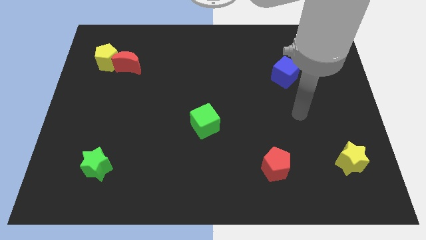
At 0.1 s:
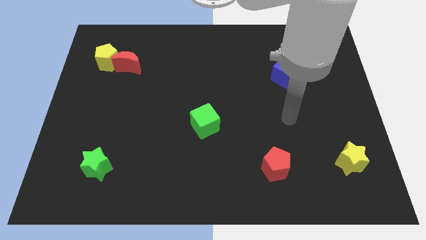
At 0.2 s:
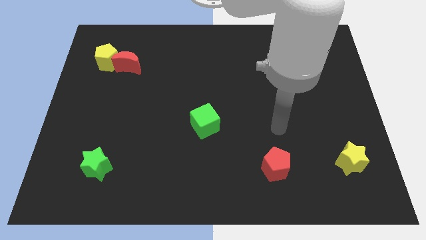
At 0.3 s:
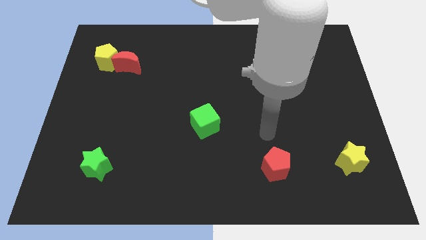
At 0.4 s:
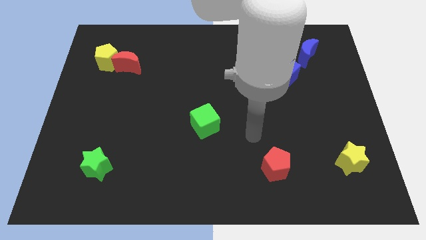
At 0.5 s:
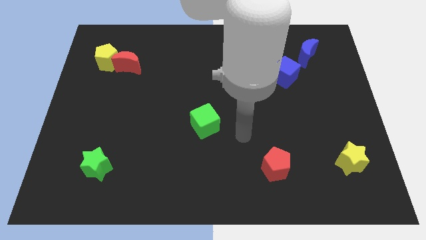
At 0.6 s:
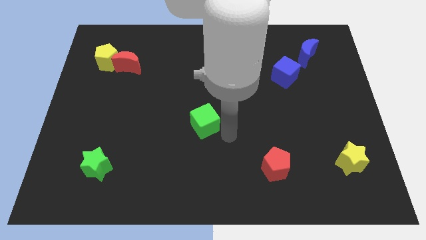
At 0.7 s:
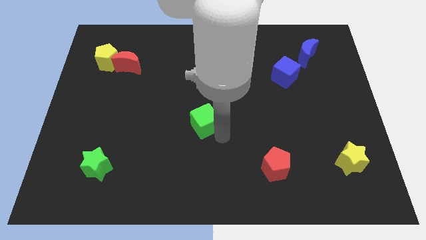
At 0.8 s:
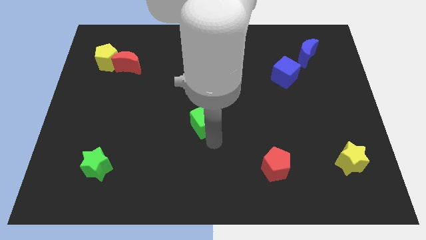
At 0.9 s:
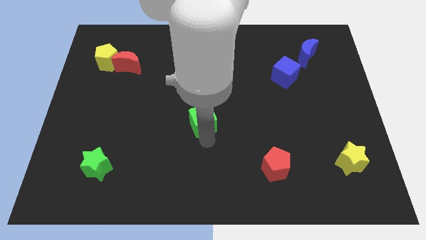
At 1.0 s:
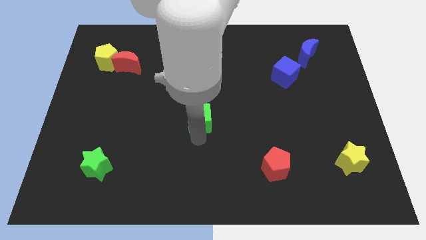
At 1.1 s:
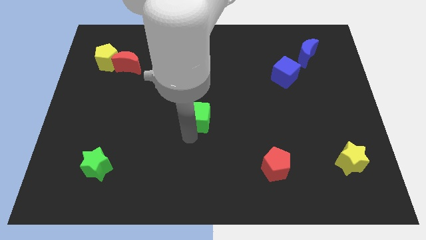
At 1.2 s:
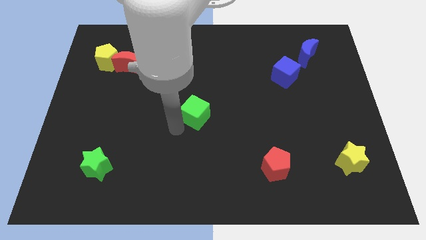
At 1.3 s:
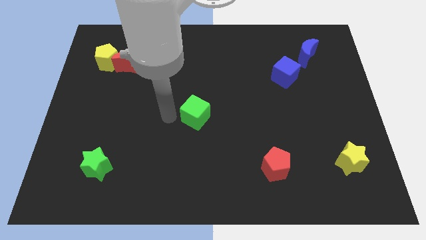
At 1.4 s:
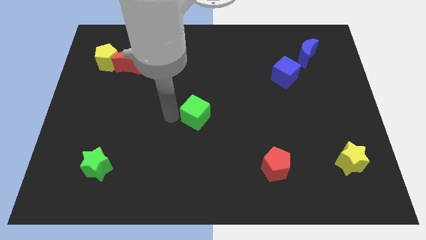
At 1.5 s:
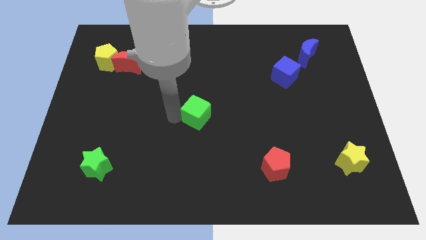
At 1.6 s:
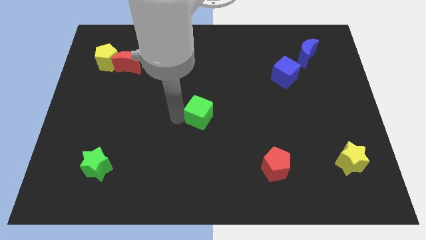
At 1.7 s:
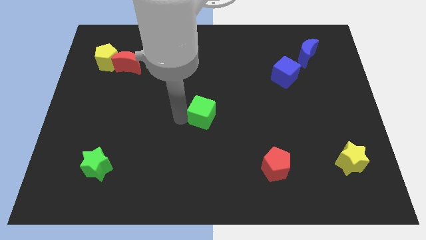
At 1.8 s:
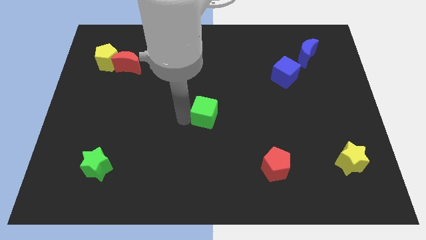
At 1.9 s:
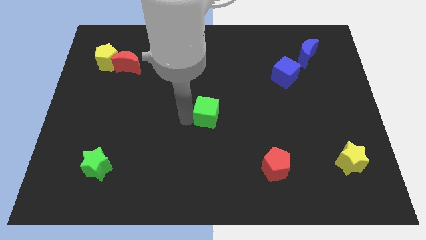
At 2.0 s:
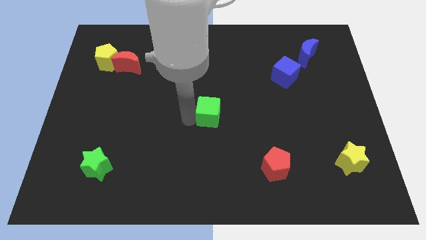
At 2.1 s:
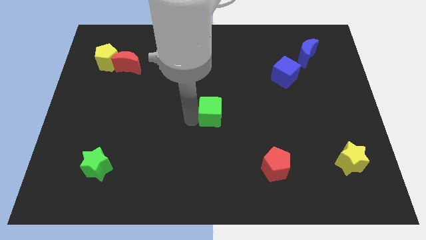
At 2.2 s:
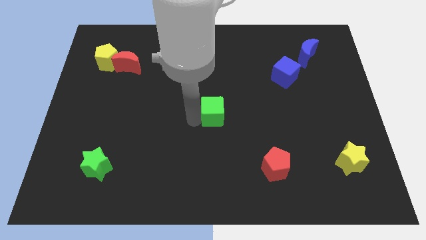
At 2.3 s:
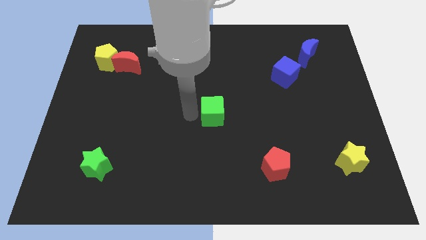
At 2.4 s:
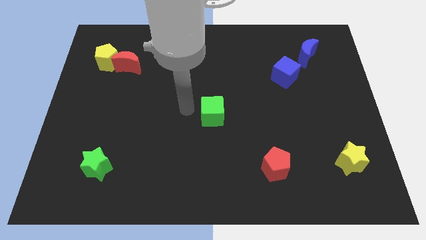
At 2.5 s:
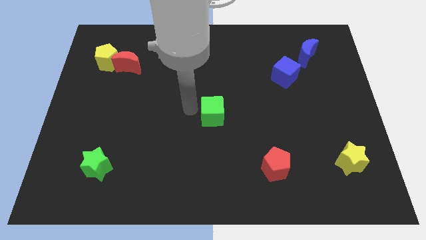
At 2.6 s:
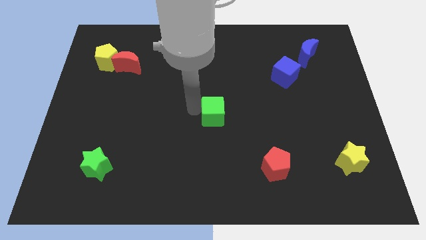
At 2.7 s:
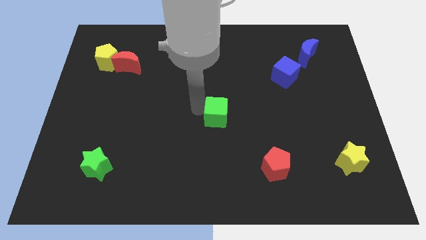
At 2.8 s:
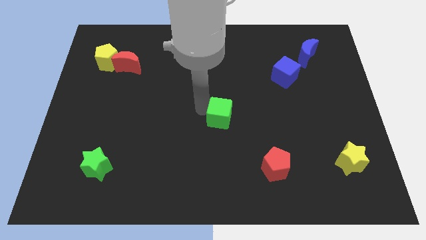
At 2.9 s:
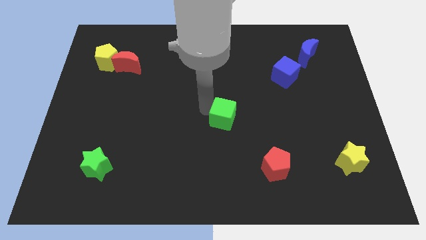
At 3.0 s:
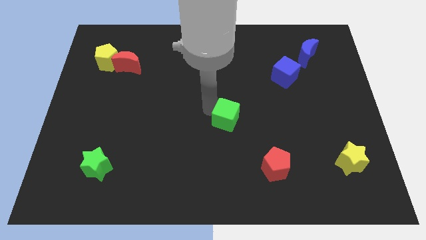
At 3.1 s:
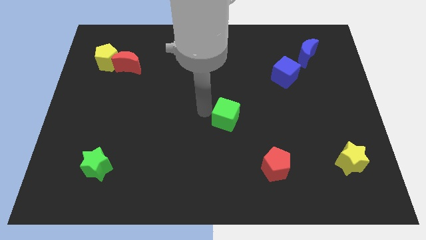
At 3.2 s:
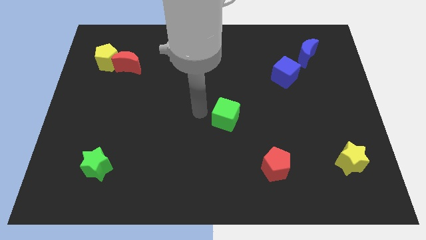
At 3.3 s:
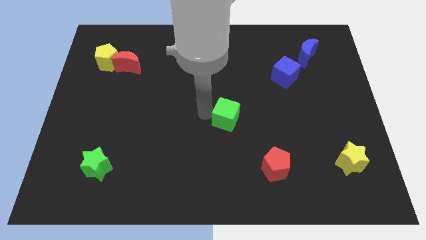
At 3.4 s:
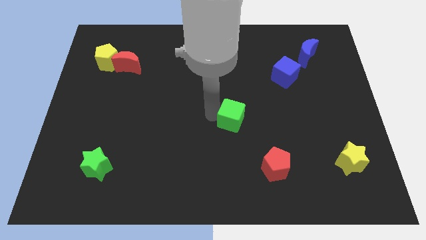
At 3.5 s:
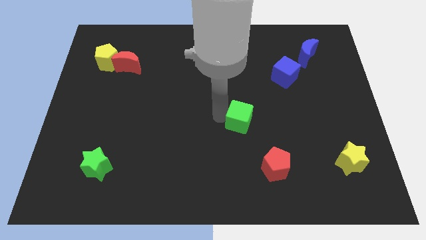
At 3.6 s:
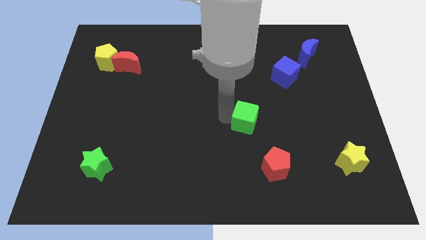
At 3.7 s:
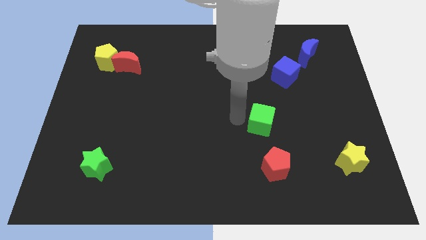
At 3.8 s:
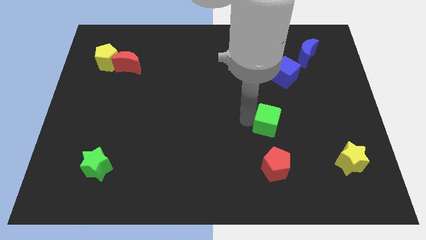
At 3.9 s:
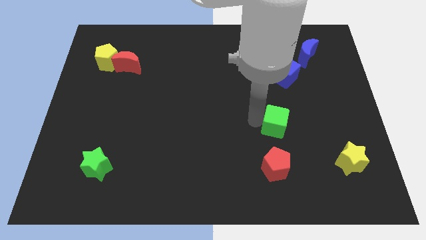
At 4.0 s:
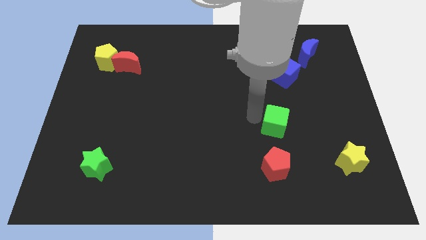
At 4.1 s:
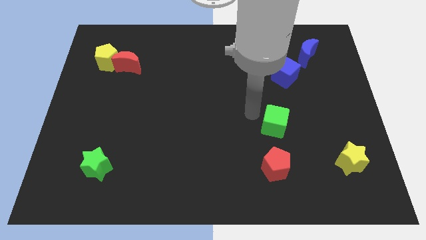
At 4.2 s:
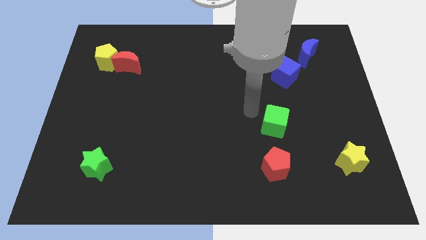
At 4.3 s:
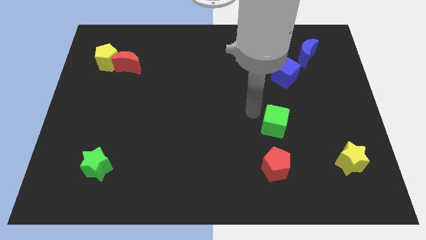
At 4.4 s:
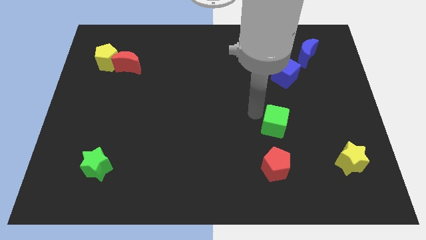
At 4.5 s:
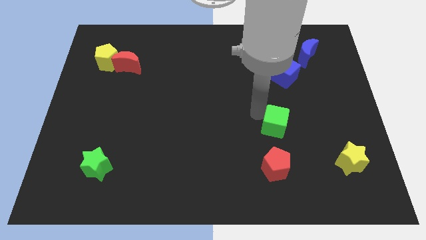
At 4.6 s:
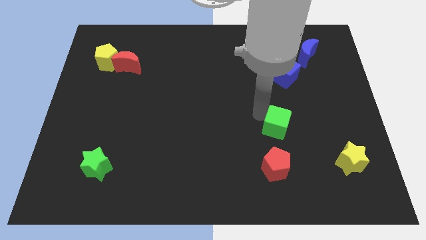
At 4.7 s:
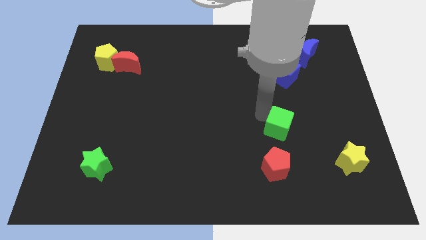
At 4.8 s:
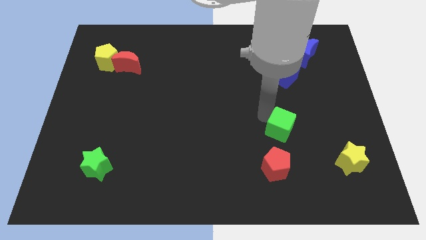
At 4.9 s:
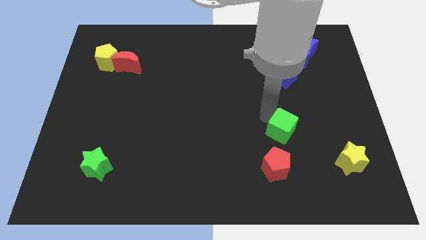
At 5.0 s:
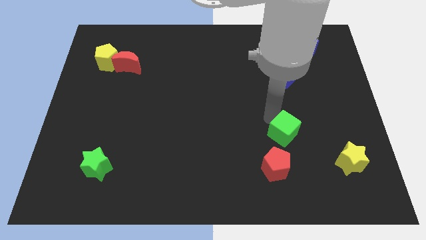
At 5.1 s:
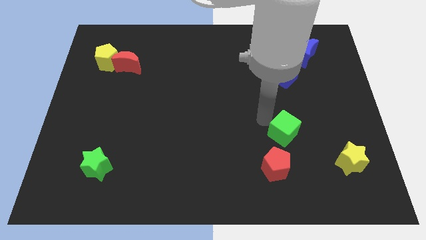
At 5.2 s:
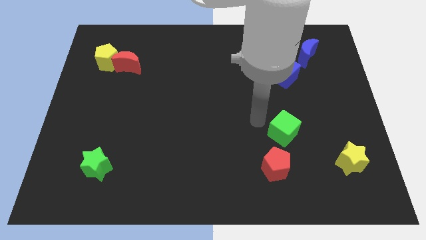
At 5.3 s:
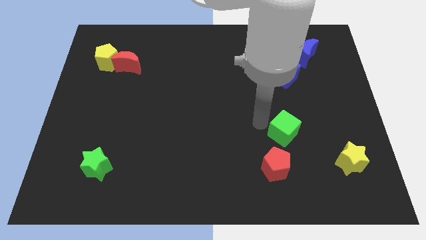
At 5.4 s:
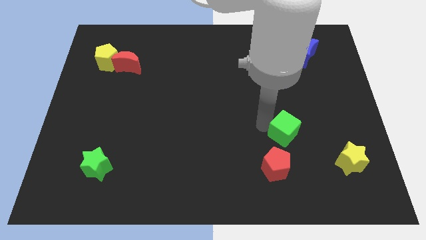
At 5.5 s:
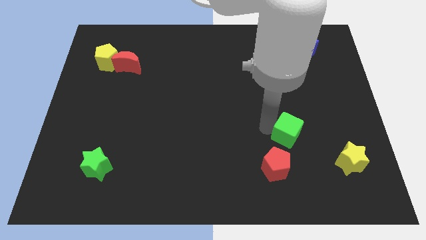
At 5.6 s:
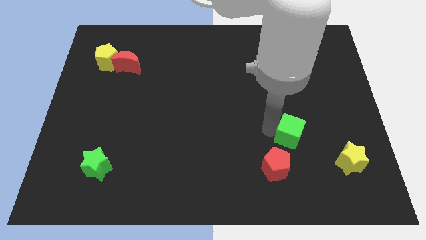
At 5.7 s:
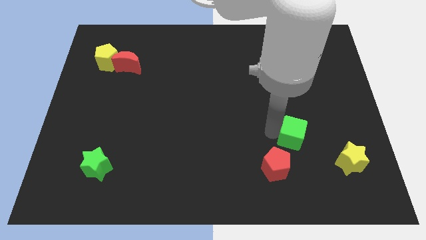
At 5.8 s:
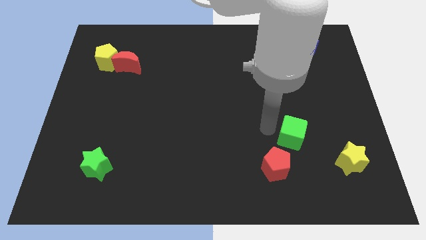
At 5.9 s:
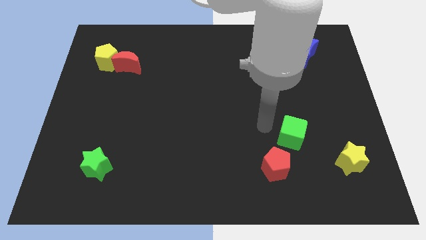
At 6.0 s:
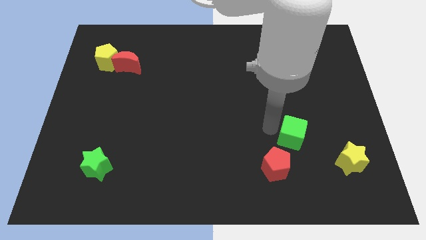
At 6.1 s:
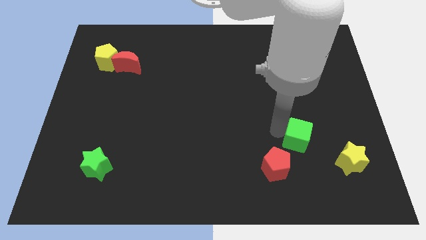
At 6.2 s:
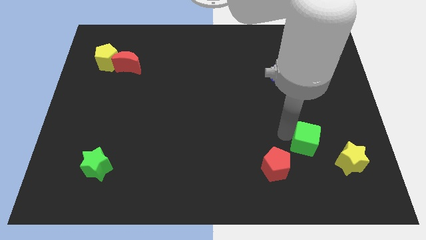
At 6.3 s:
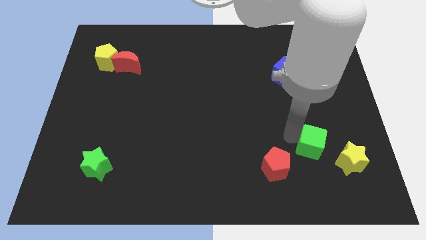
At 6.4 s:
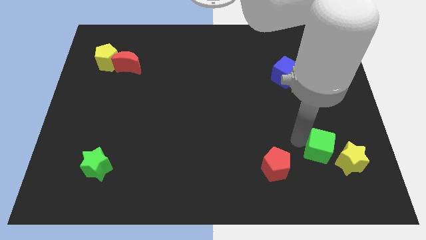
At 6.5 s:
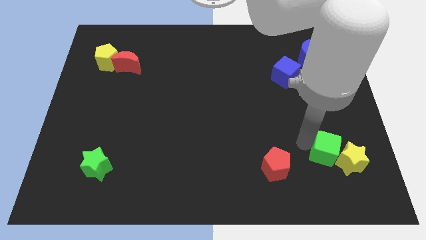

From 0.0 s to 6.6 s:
slide the green cube close to the yellow star

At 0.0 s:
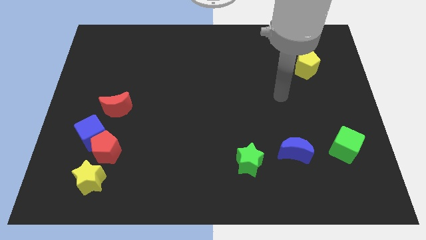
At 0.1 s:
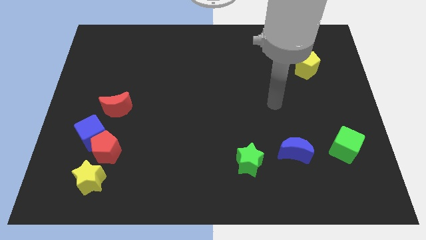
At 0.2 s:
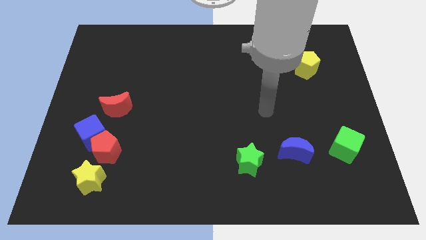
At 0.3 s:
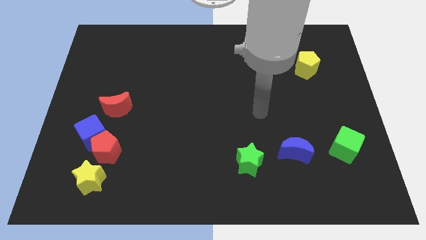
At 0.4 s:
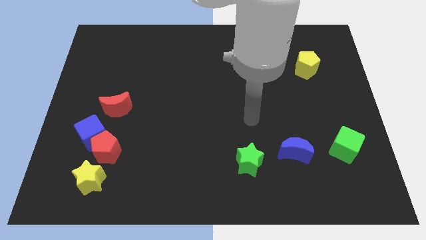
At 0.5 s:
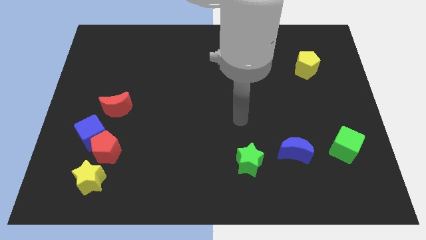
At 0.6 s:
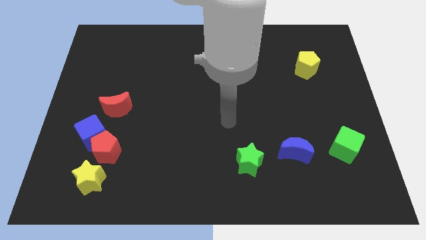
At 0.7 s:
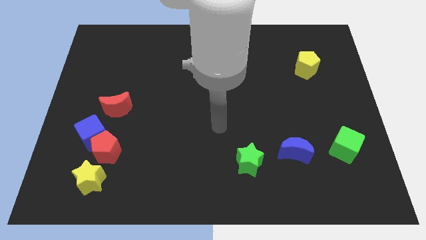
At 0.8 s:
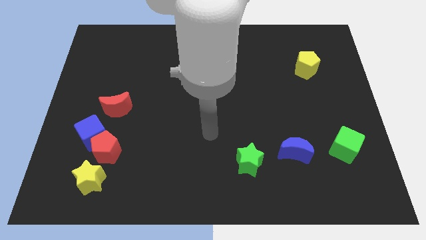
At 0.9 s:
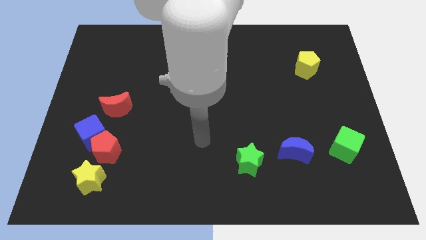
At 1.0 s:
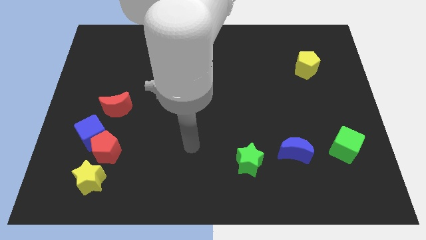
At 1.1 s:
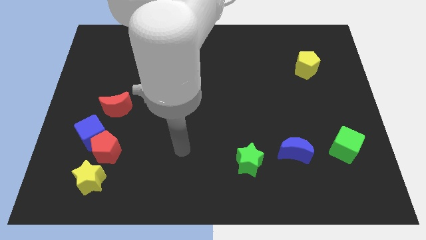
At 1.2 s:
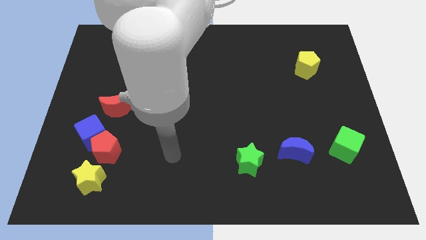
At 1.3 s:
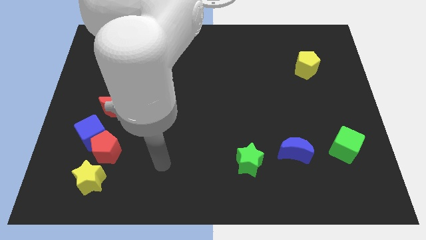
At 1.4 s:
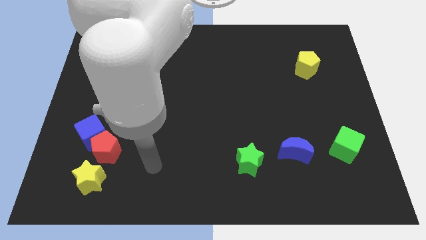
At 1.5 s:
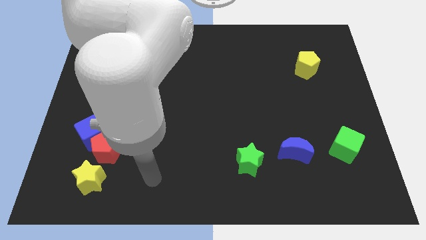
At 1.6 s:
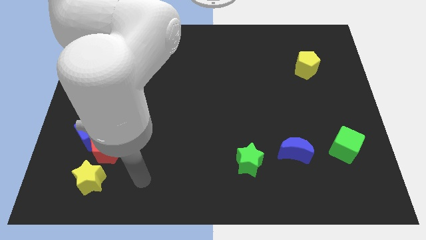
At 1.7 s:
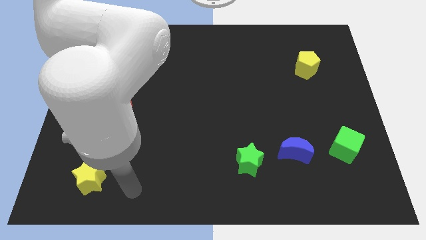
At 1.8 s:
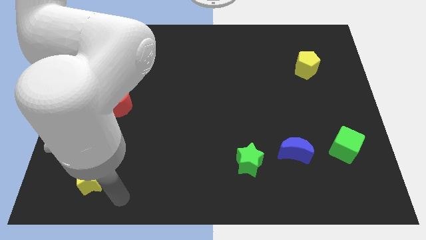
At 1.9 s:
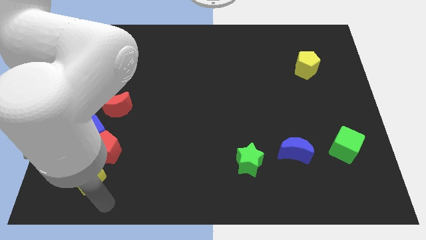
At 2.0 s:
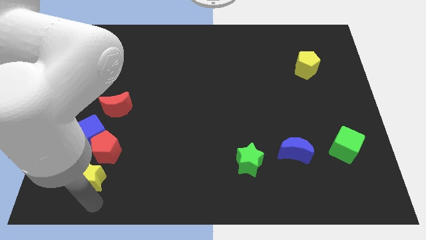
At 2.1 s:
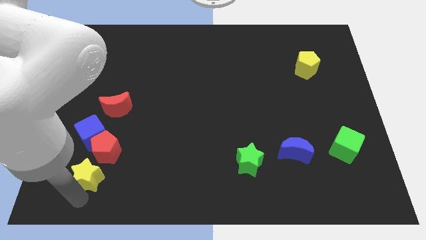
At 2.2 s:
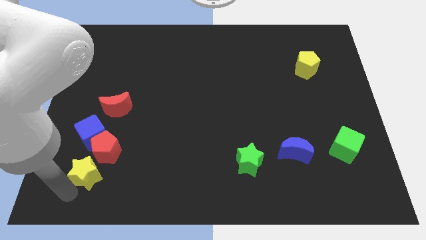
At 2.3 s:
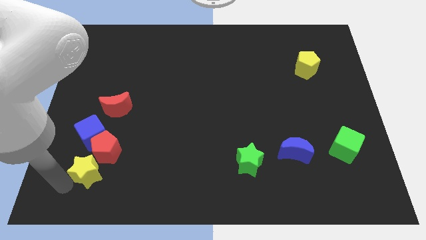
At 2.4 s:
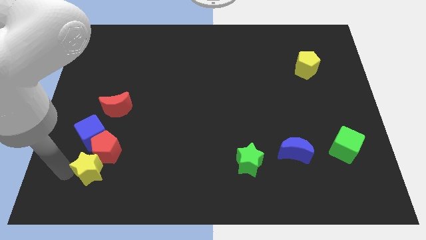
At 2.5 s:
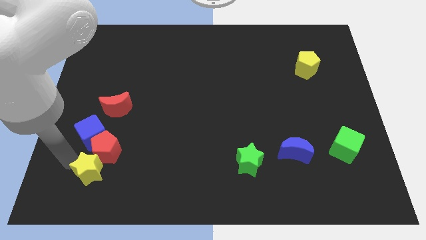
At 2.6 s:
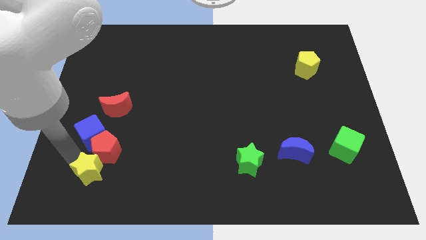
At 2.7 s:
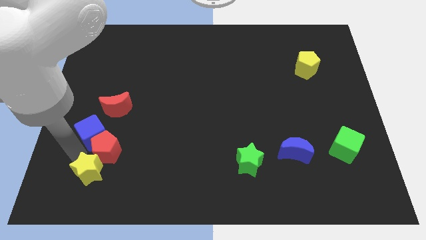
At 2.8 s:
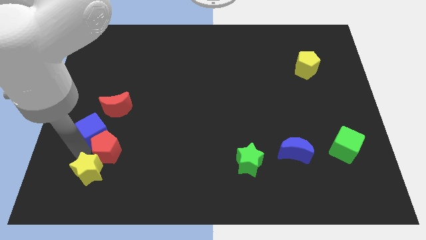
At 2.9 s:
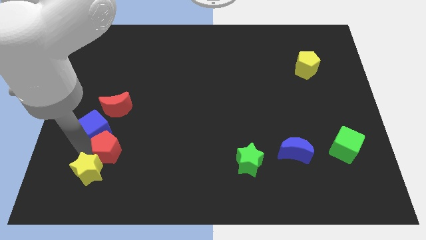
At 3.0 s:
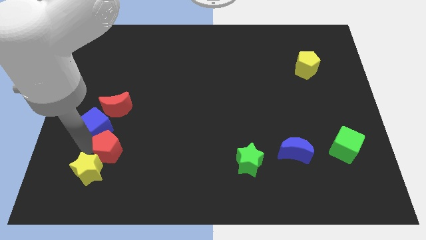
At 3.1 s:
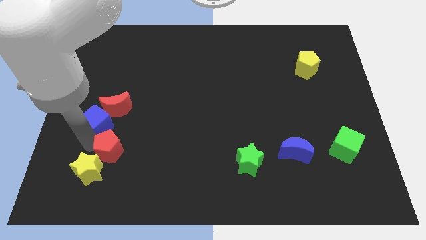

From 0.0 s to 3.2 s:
push the blue cube to the red moon
